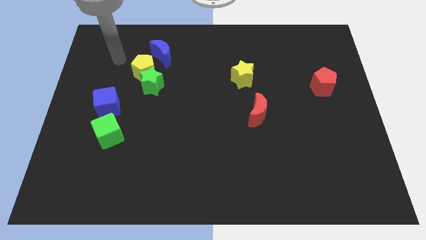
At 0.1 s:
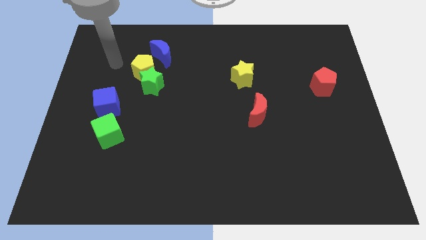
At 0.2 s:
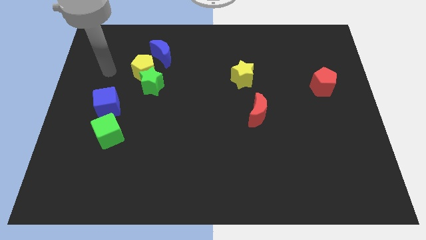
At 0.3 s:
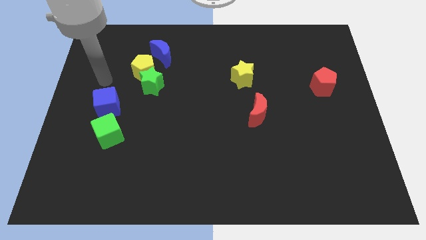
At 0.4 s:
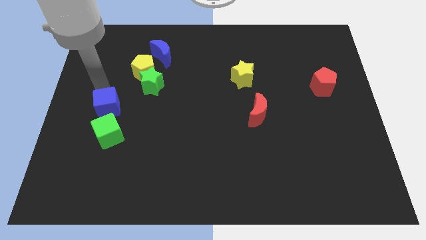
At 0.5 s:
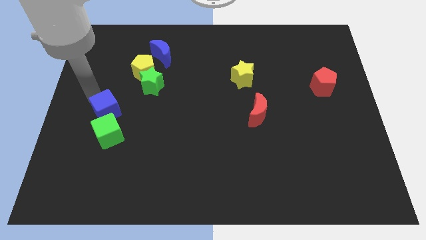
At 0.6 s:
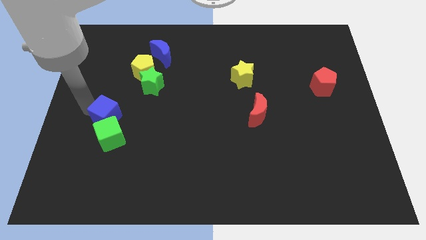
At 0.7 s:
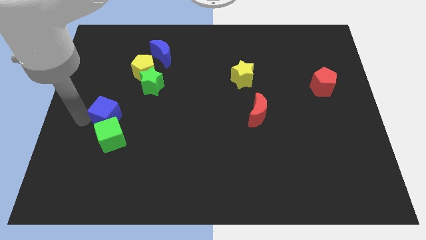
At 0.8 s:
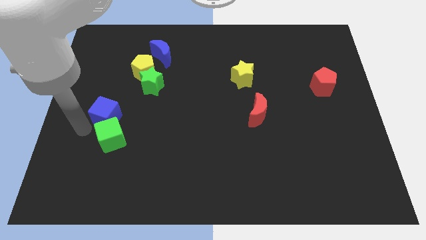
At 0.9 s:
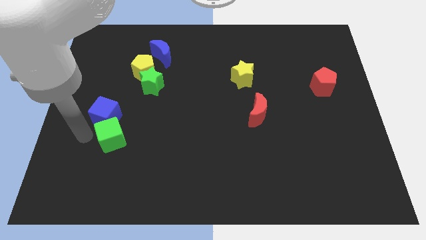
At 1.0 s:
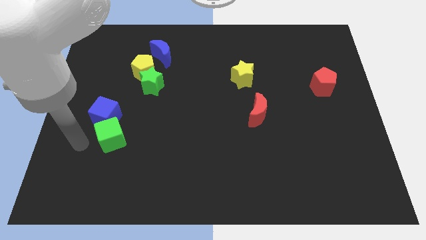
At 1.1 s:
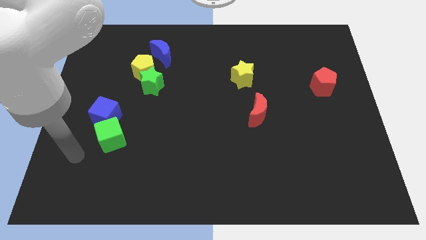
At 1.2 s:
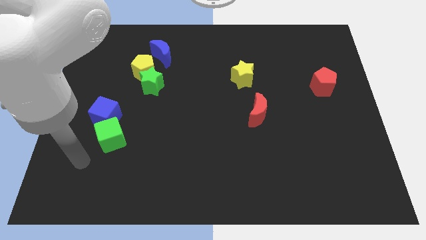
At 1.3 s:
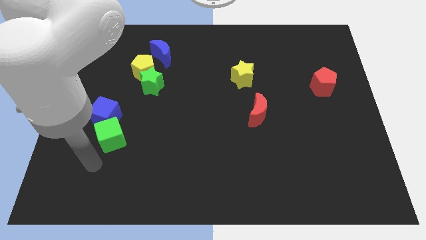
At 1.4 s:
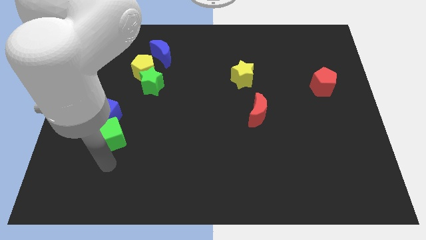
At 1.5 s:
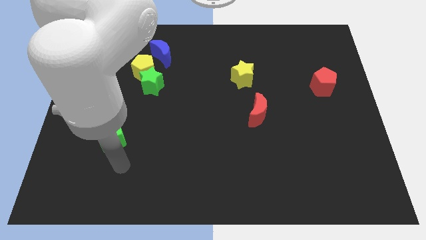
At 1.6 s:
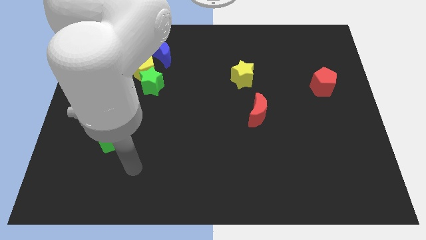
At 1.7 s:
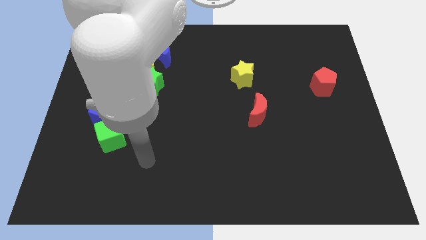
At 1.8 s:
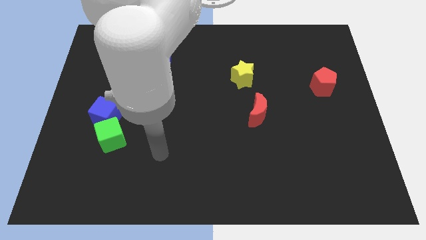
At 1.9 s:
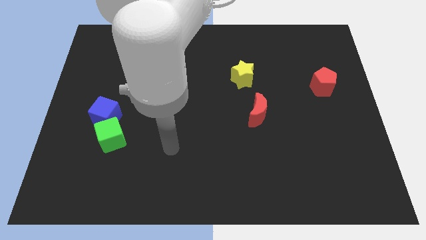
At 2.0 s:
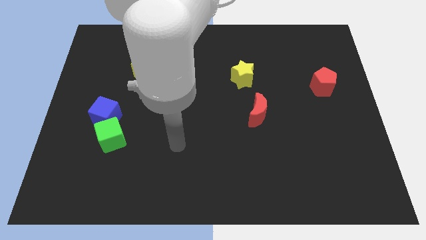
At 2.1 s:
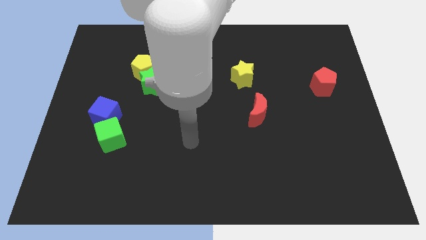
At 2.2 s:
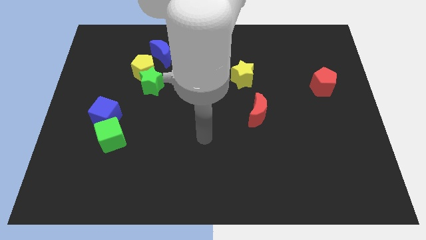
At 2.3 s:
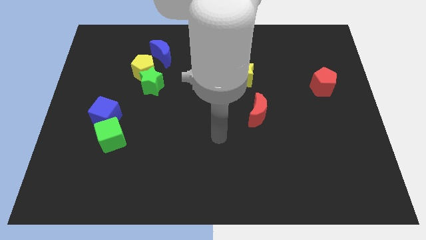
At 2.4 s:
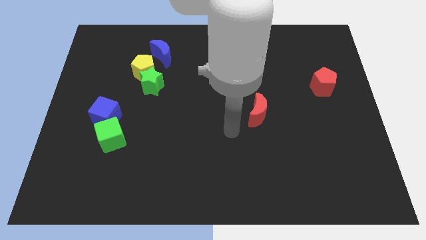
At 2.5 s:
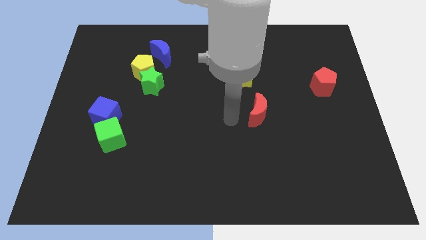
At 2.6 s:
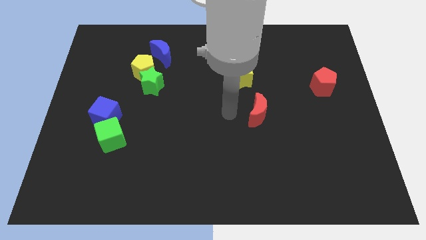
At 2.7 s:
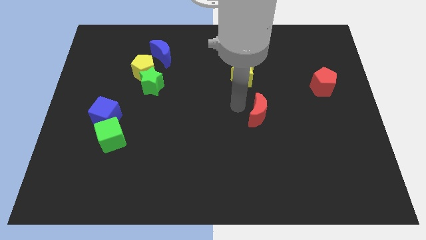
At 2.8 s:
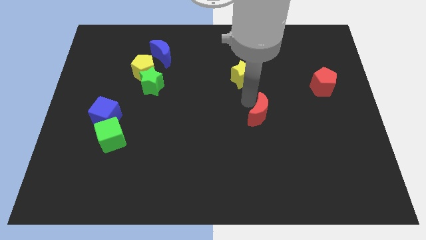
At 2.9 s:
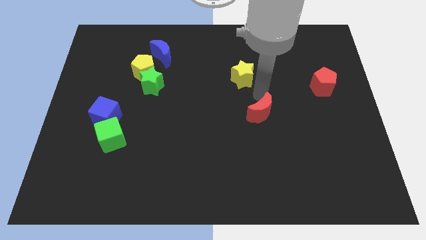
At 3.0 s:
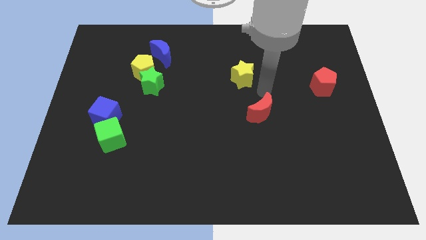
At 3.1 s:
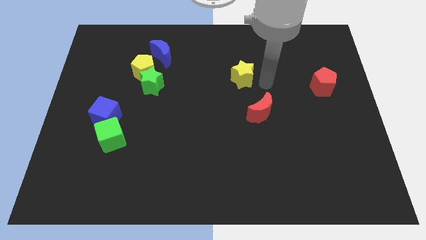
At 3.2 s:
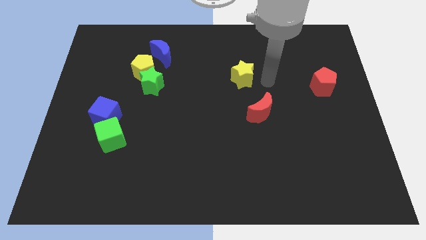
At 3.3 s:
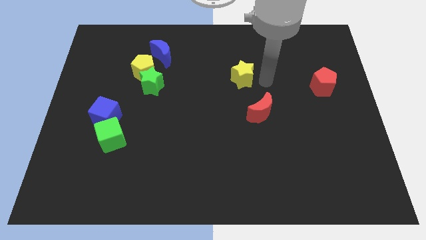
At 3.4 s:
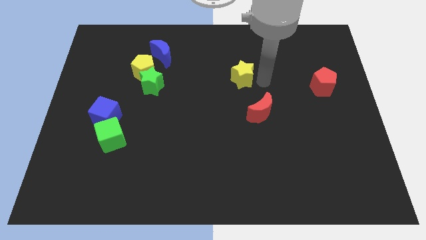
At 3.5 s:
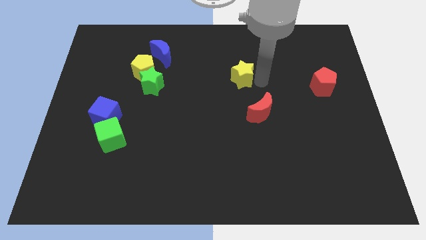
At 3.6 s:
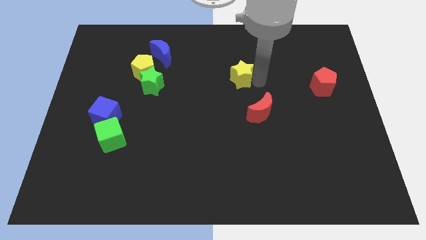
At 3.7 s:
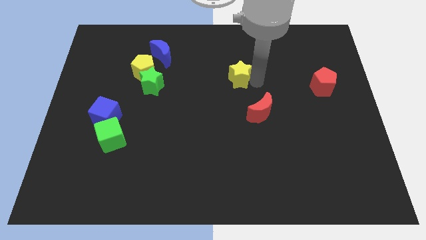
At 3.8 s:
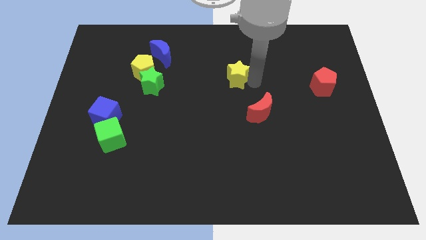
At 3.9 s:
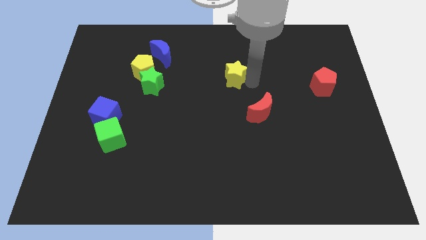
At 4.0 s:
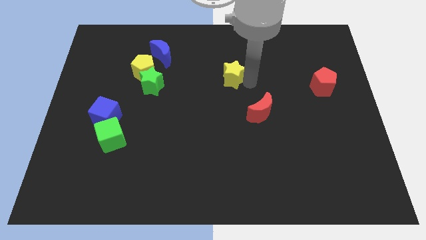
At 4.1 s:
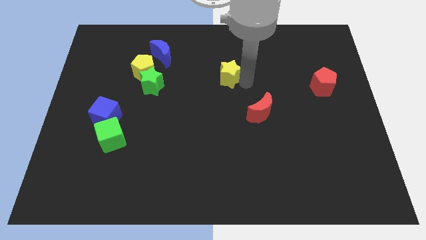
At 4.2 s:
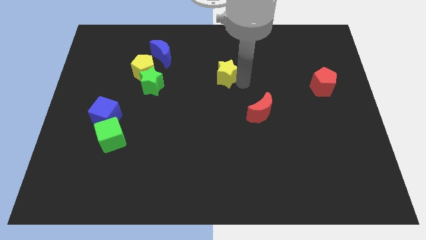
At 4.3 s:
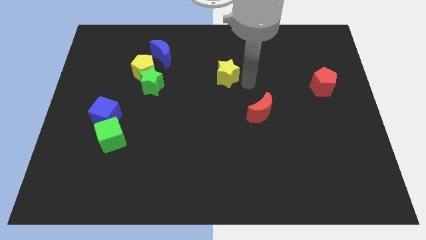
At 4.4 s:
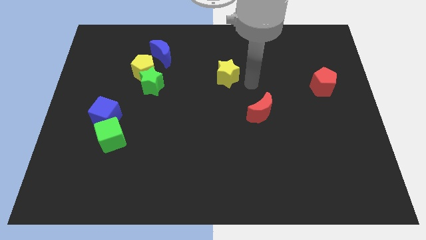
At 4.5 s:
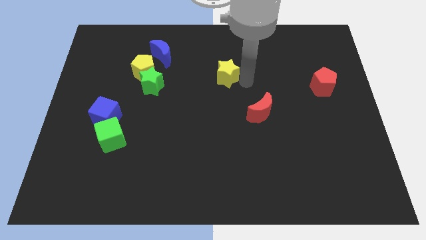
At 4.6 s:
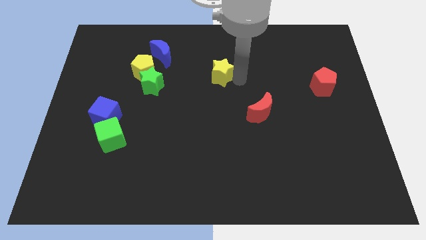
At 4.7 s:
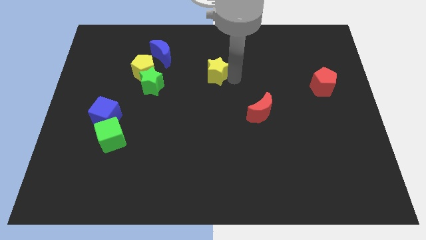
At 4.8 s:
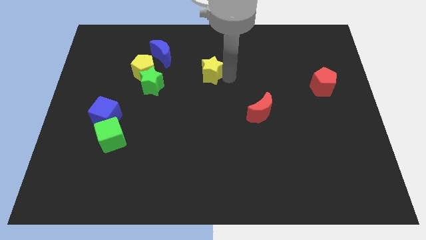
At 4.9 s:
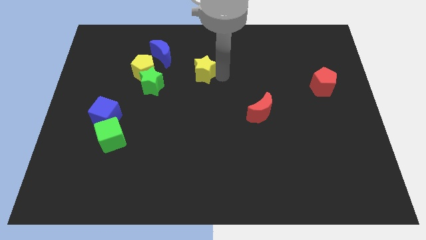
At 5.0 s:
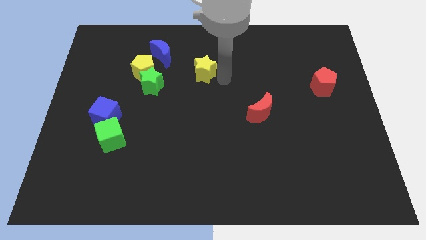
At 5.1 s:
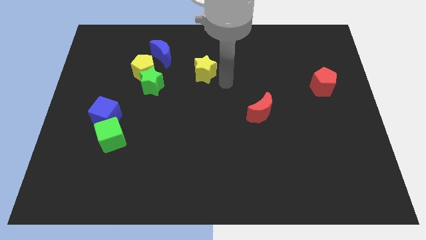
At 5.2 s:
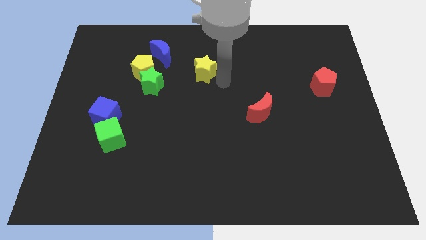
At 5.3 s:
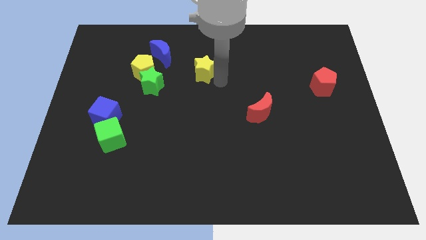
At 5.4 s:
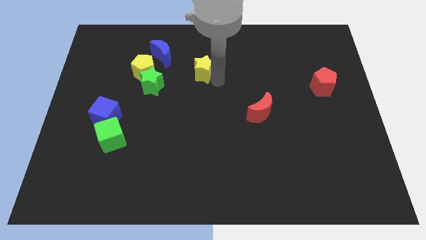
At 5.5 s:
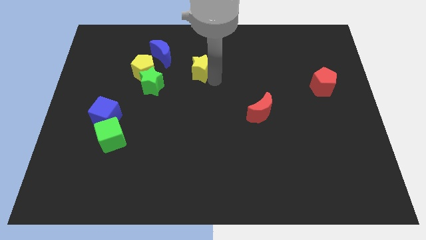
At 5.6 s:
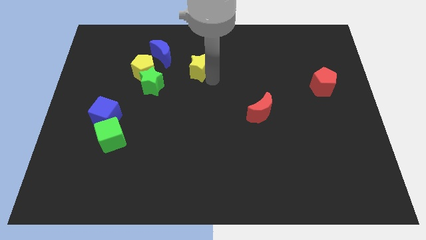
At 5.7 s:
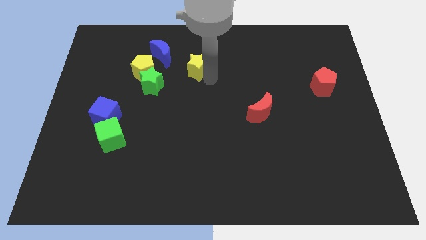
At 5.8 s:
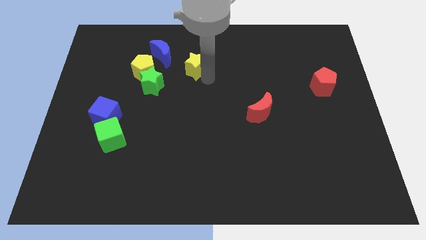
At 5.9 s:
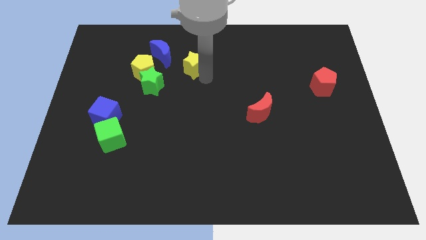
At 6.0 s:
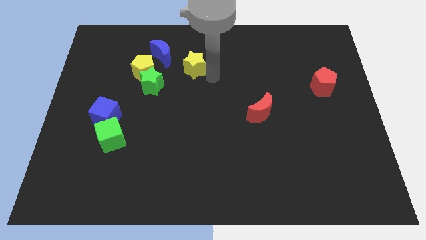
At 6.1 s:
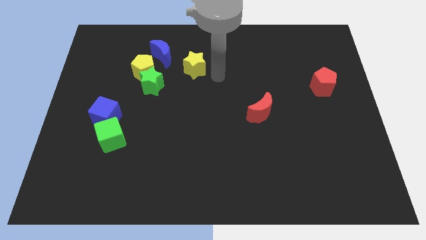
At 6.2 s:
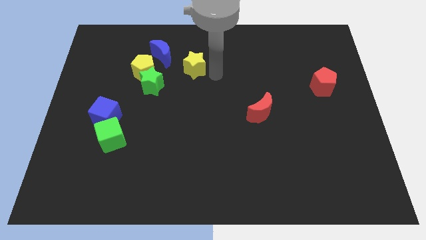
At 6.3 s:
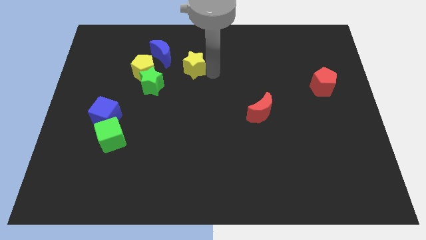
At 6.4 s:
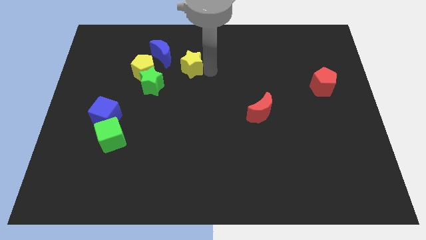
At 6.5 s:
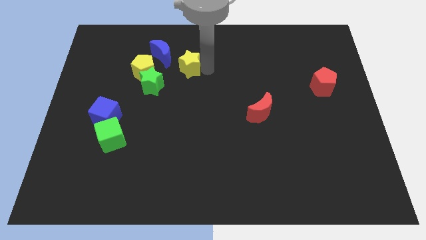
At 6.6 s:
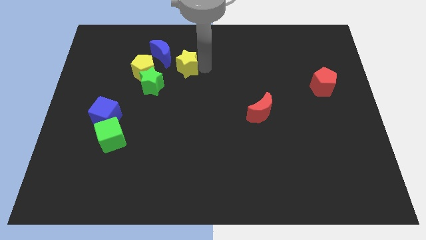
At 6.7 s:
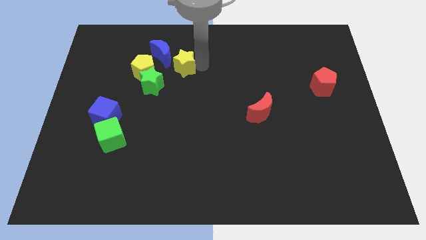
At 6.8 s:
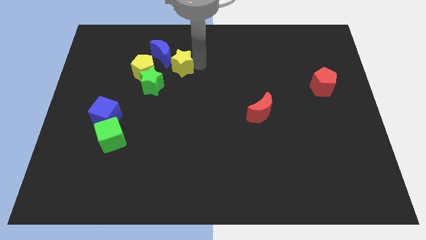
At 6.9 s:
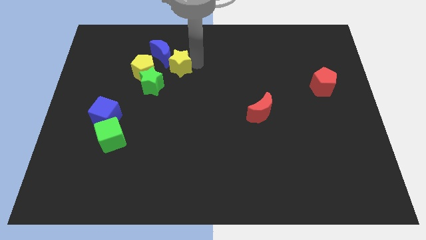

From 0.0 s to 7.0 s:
put the yellow star to the blue moon
